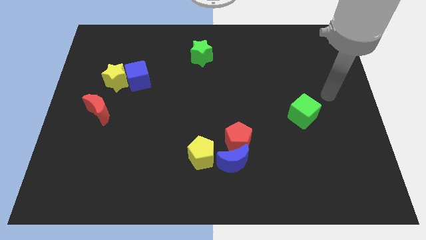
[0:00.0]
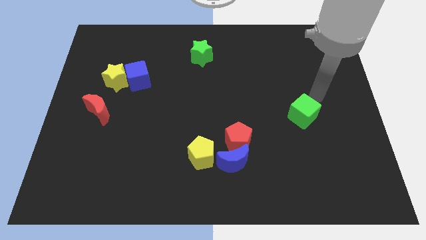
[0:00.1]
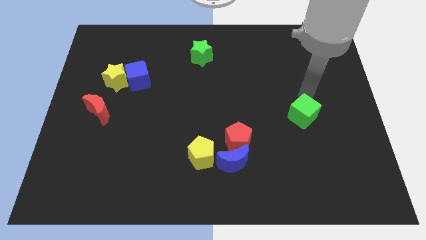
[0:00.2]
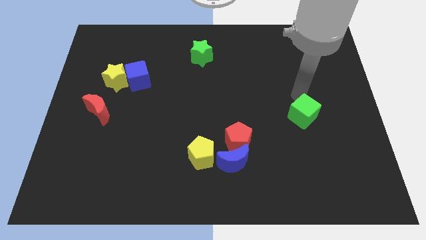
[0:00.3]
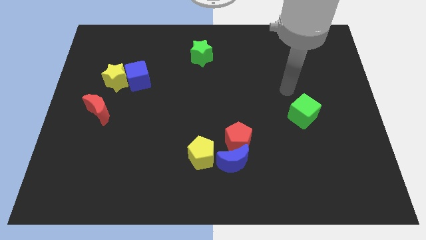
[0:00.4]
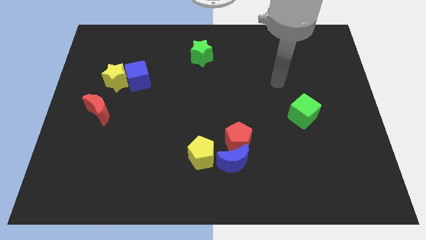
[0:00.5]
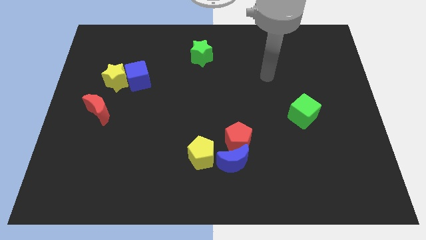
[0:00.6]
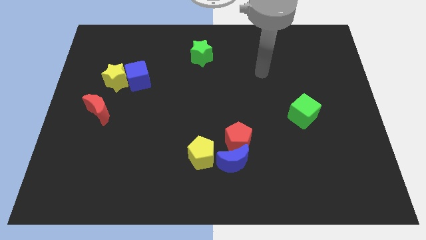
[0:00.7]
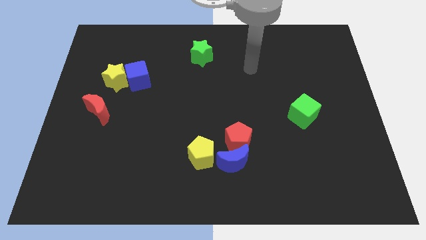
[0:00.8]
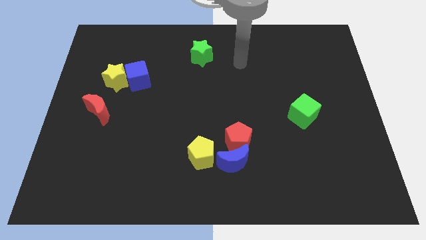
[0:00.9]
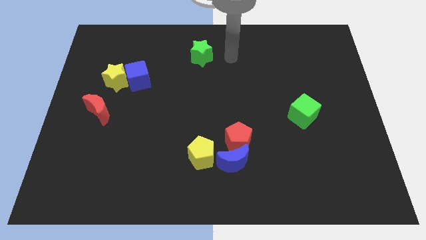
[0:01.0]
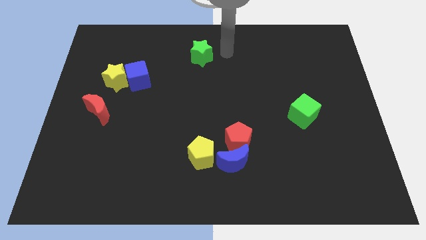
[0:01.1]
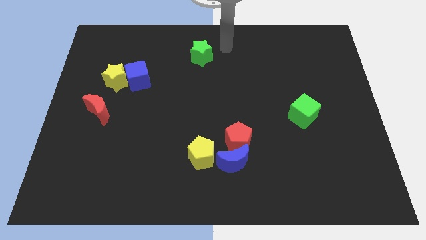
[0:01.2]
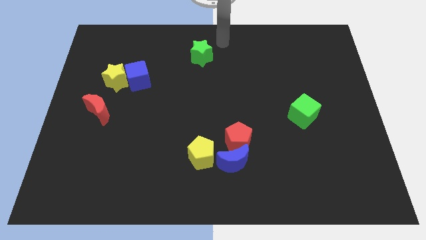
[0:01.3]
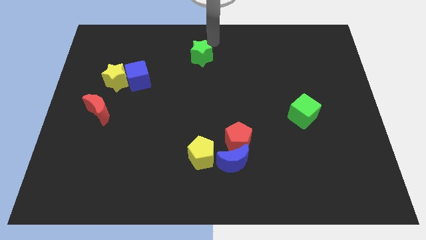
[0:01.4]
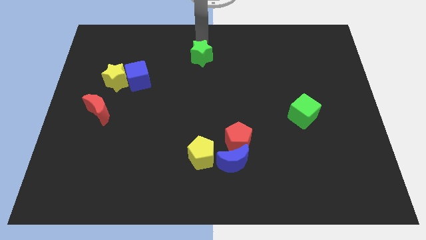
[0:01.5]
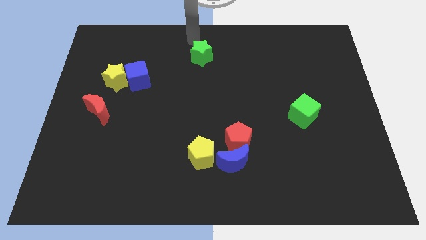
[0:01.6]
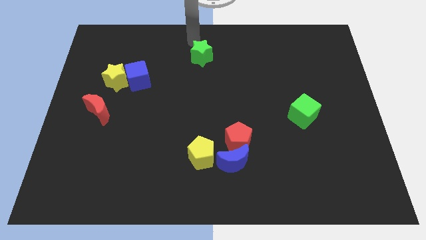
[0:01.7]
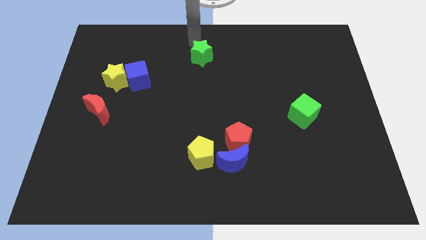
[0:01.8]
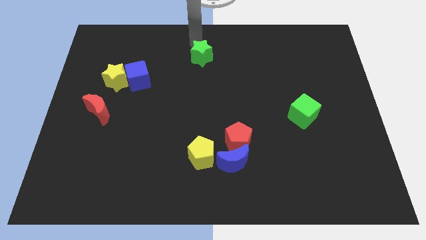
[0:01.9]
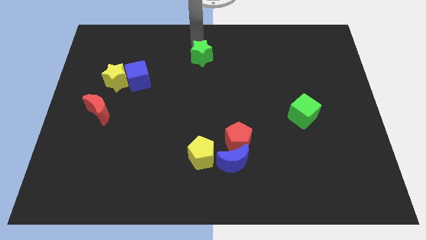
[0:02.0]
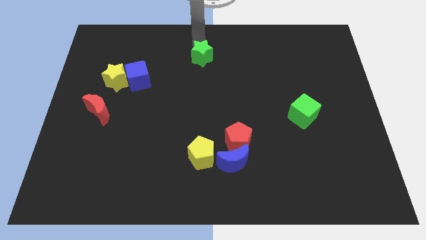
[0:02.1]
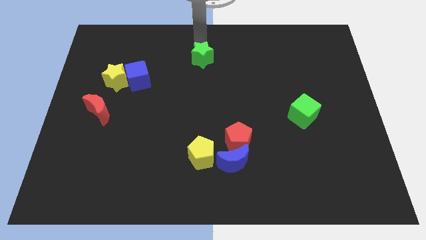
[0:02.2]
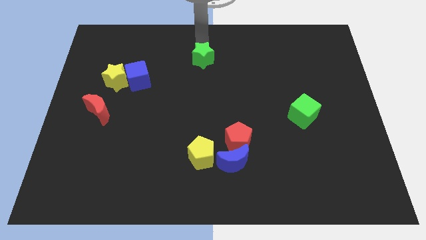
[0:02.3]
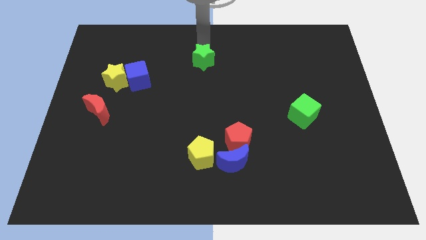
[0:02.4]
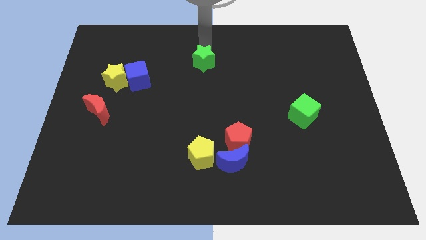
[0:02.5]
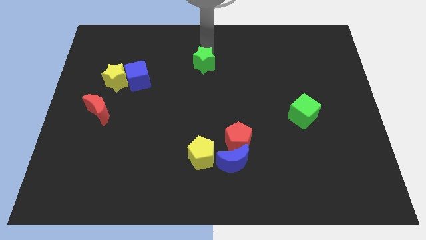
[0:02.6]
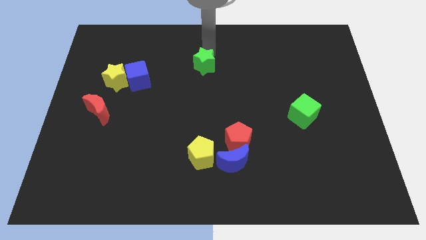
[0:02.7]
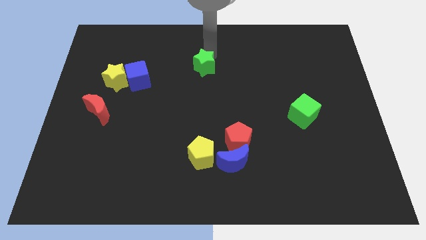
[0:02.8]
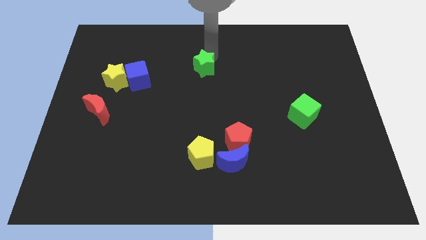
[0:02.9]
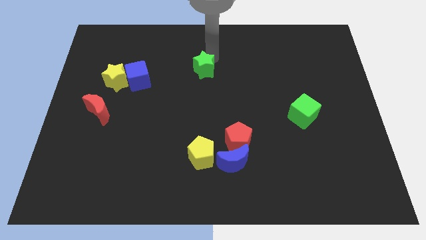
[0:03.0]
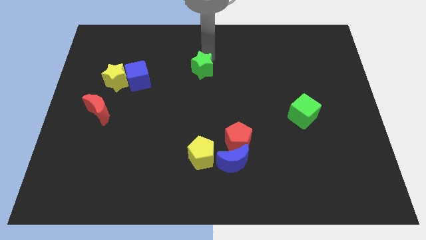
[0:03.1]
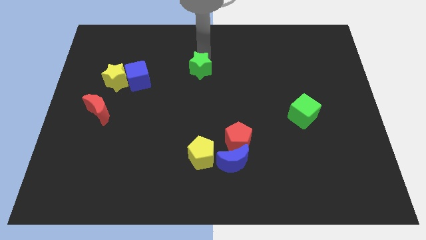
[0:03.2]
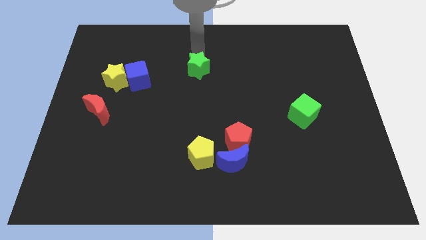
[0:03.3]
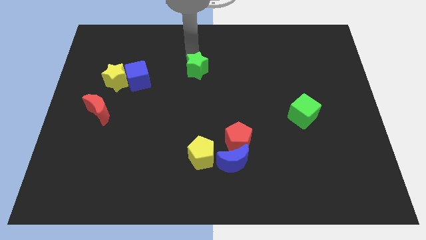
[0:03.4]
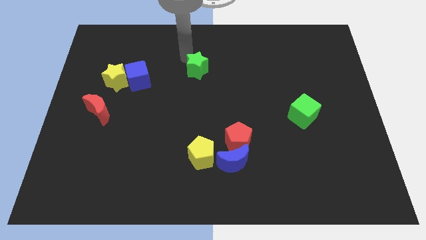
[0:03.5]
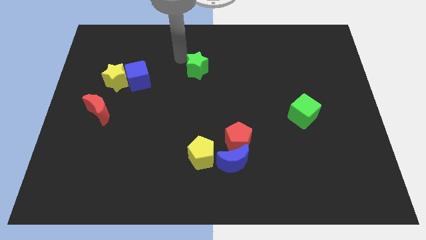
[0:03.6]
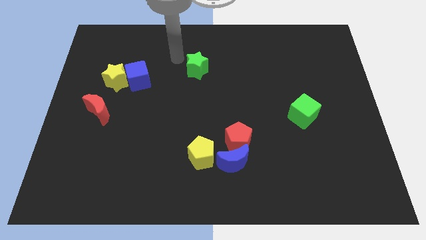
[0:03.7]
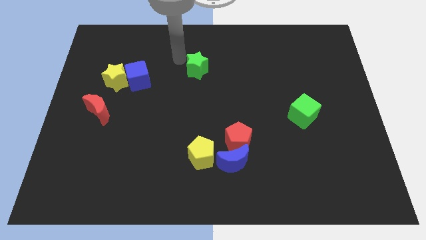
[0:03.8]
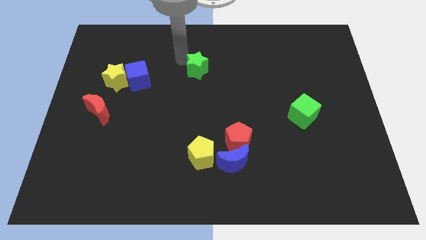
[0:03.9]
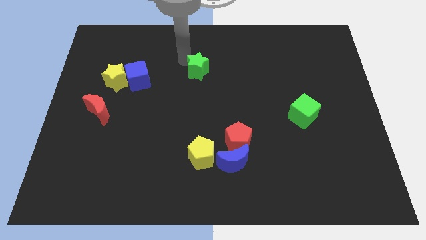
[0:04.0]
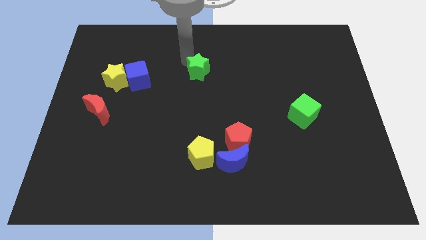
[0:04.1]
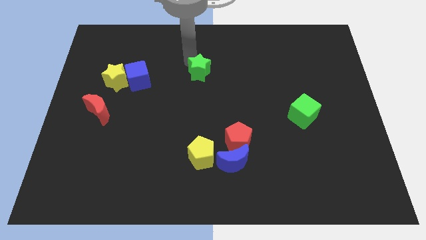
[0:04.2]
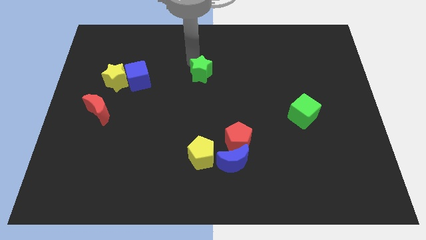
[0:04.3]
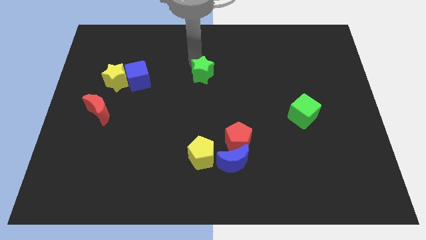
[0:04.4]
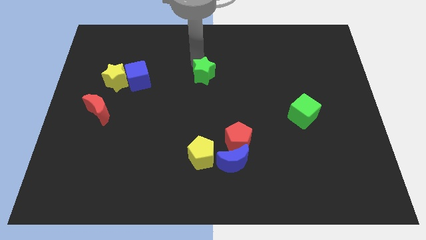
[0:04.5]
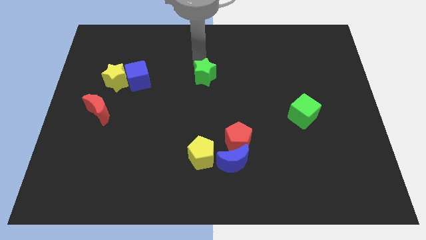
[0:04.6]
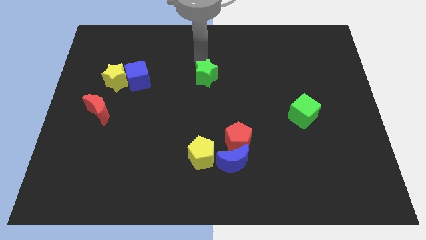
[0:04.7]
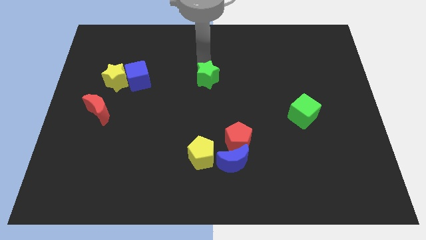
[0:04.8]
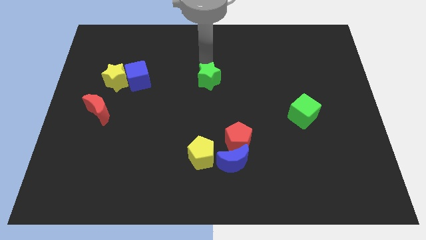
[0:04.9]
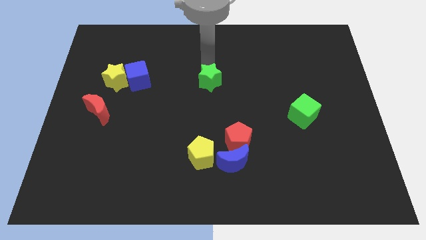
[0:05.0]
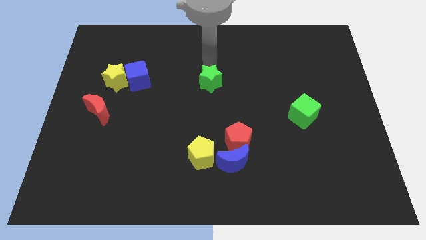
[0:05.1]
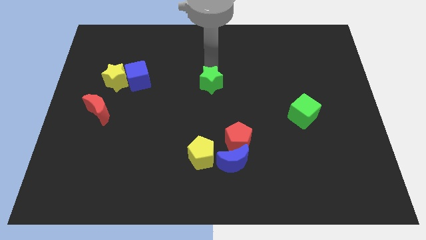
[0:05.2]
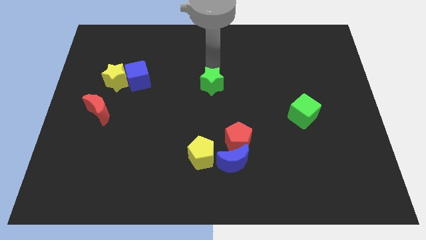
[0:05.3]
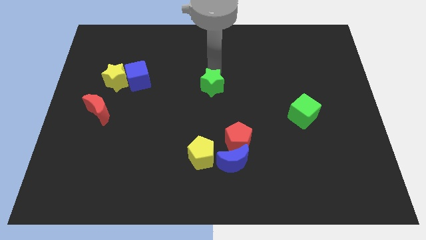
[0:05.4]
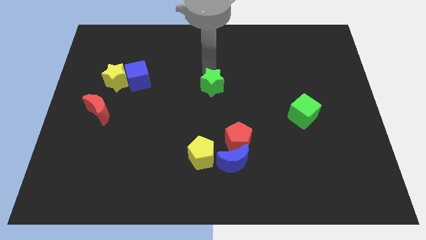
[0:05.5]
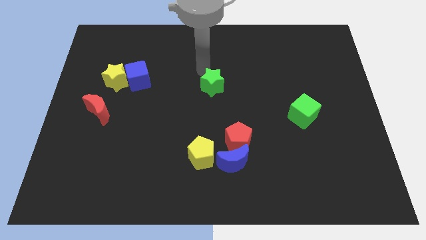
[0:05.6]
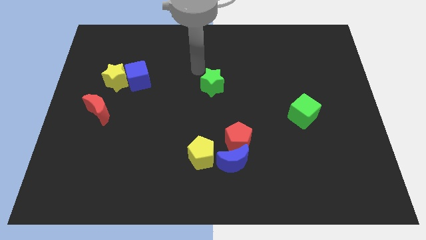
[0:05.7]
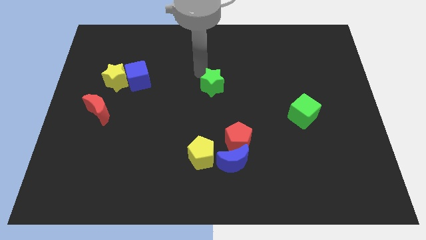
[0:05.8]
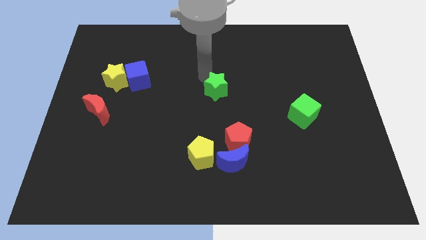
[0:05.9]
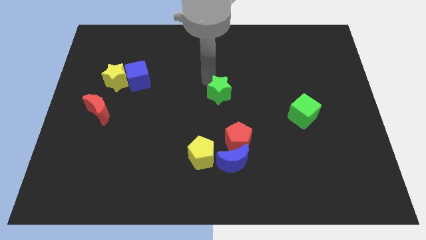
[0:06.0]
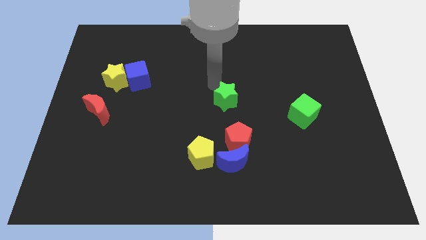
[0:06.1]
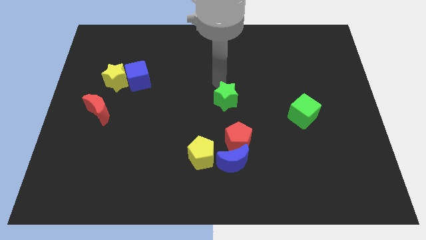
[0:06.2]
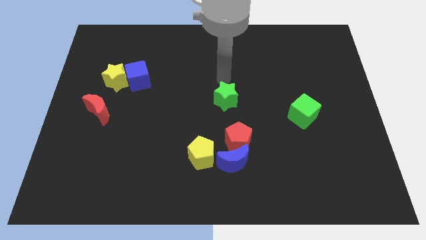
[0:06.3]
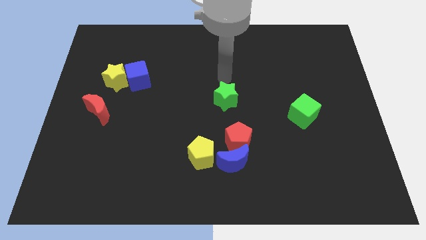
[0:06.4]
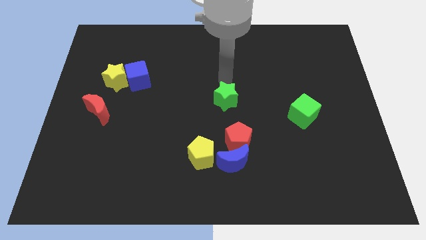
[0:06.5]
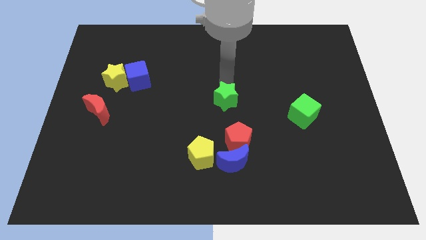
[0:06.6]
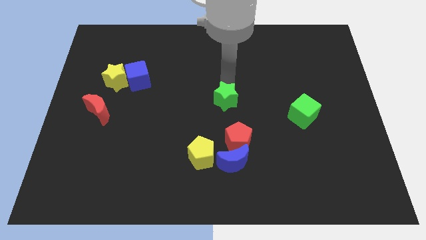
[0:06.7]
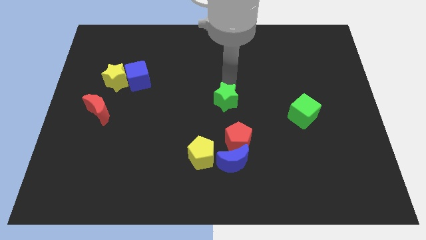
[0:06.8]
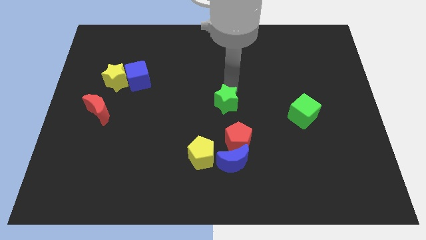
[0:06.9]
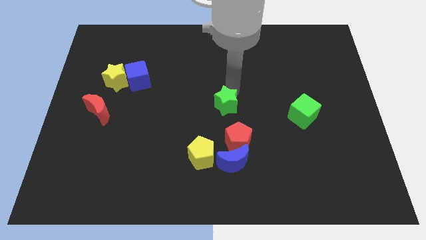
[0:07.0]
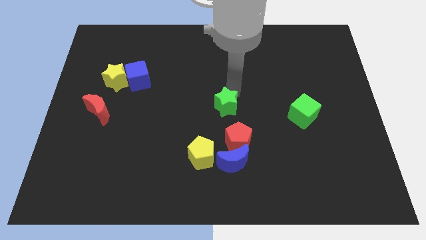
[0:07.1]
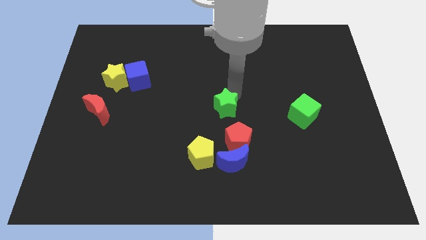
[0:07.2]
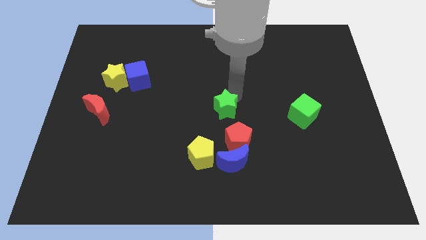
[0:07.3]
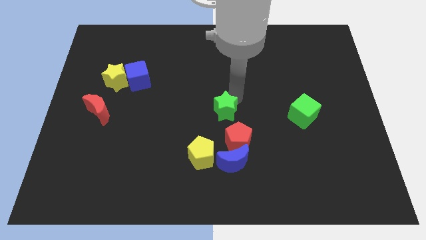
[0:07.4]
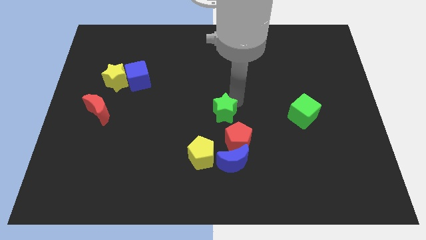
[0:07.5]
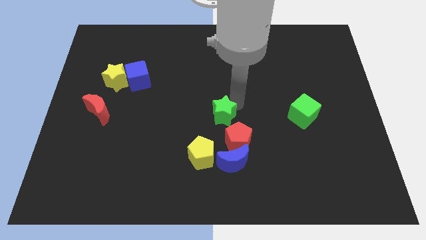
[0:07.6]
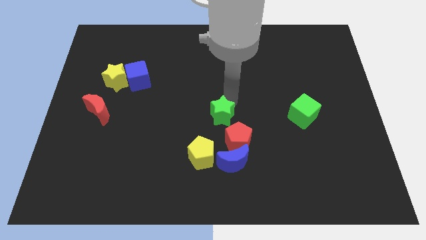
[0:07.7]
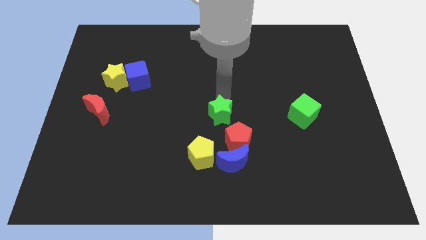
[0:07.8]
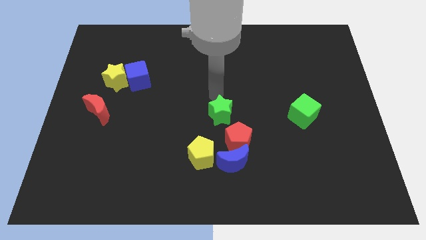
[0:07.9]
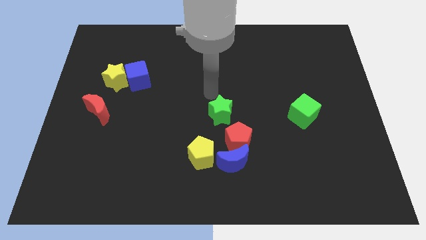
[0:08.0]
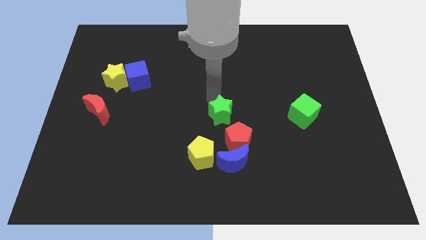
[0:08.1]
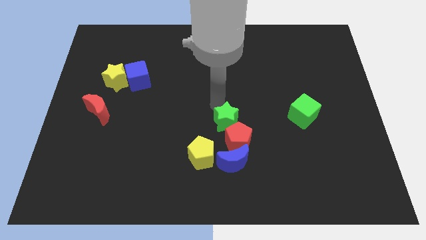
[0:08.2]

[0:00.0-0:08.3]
put the green star close to the red pentagon
